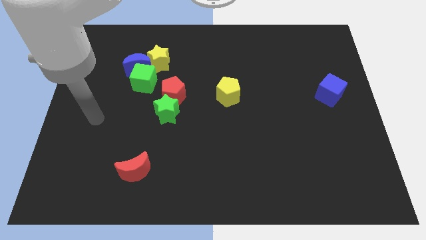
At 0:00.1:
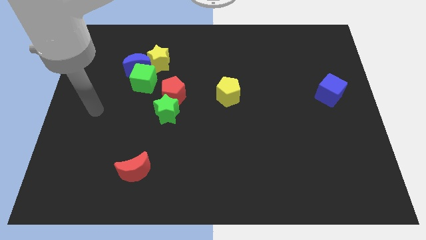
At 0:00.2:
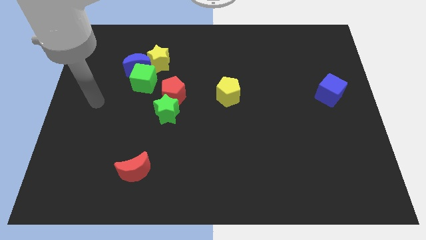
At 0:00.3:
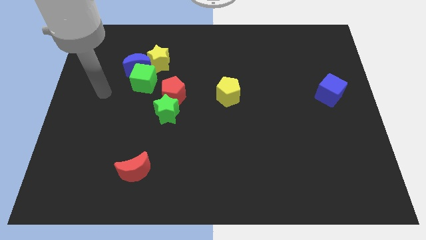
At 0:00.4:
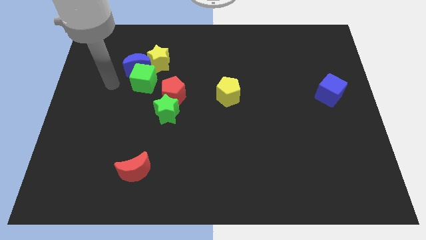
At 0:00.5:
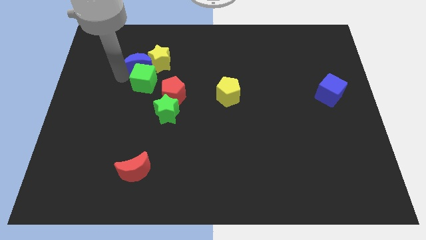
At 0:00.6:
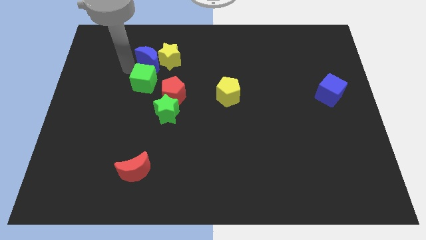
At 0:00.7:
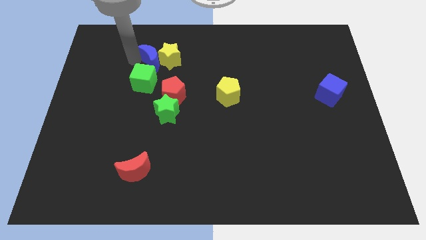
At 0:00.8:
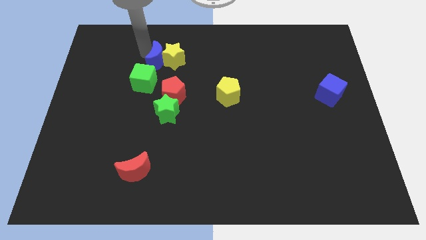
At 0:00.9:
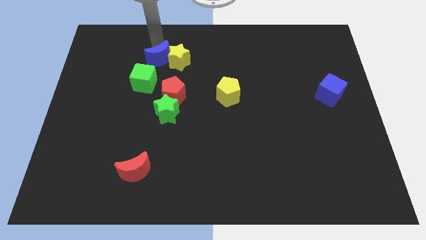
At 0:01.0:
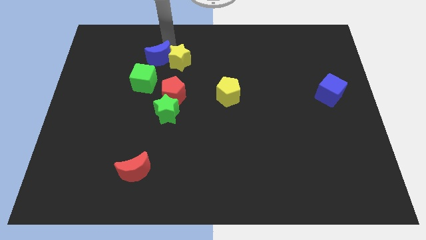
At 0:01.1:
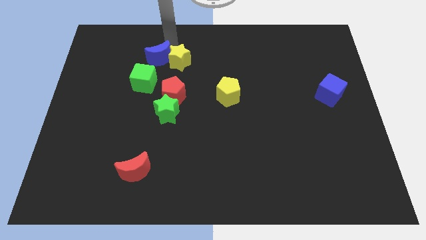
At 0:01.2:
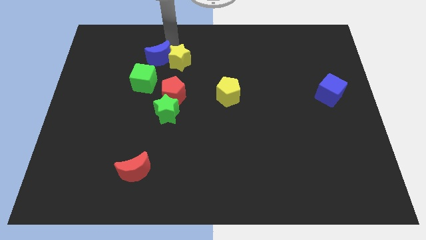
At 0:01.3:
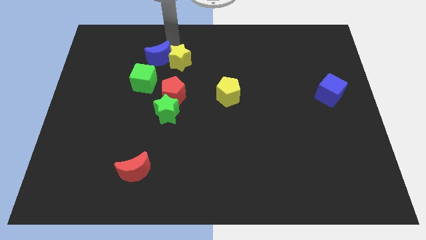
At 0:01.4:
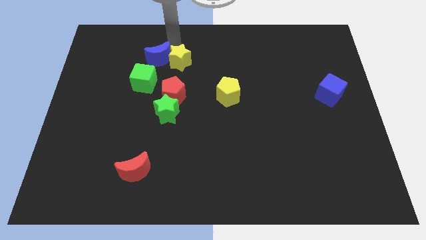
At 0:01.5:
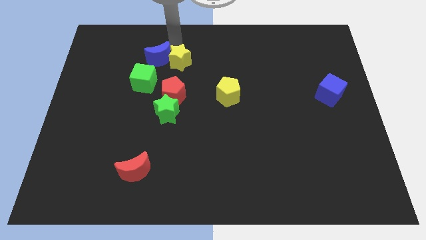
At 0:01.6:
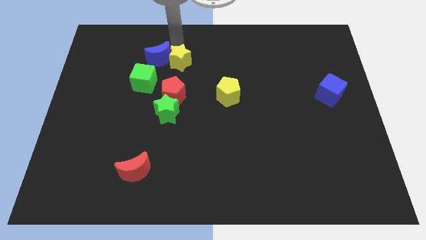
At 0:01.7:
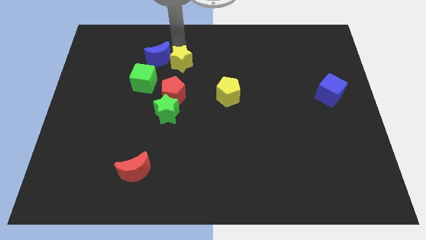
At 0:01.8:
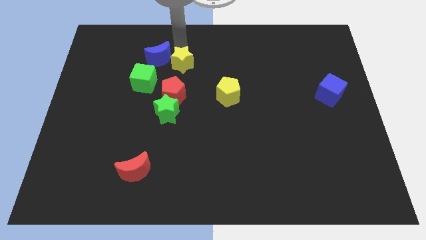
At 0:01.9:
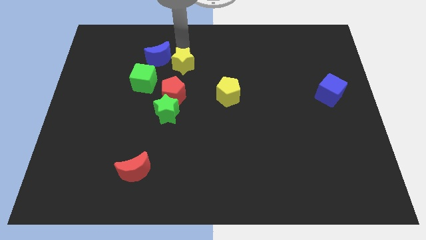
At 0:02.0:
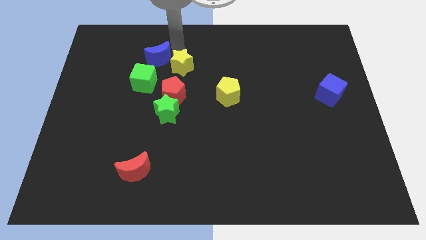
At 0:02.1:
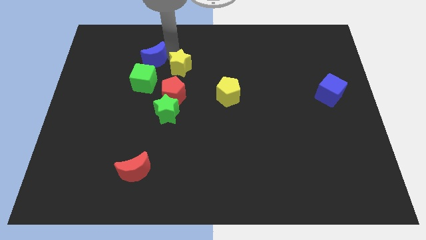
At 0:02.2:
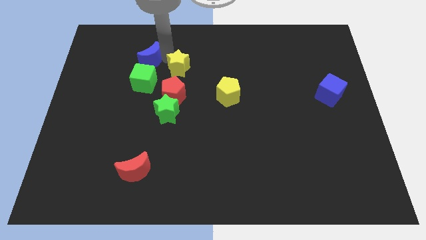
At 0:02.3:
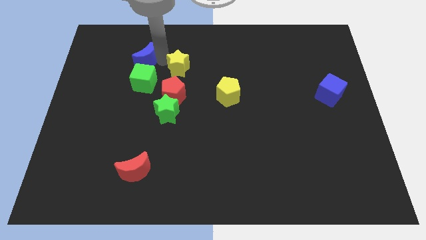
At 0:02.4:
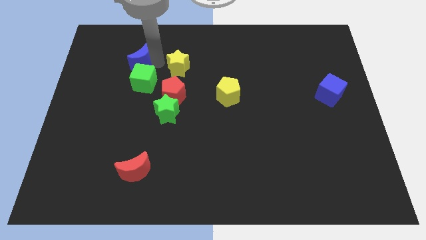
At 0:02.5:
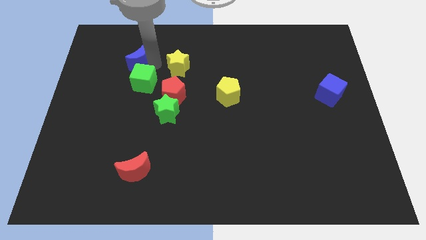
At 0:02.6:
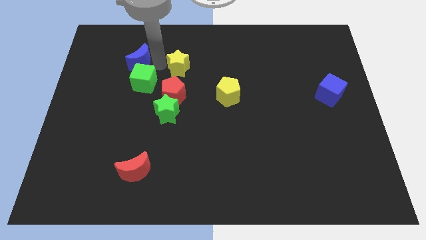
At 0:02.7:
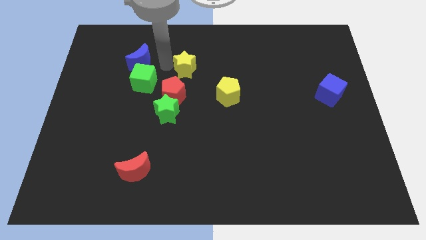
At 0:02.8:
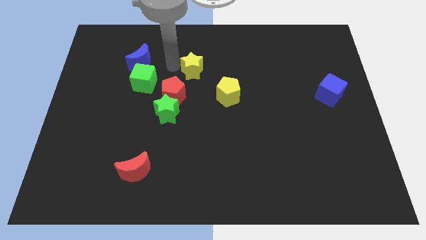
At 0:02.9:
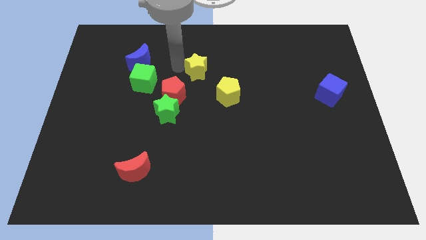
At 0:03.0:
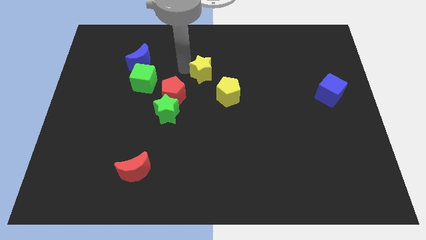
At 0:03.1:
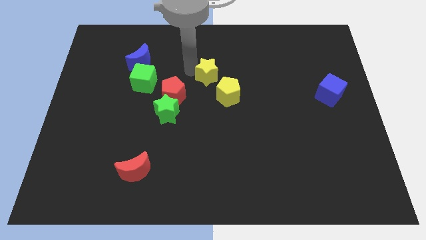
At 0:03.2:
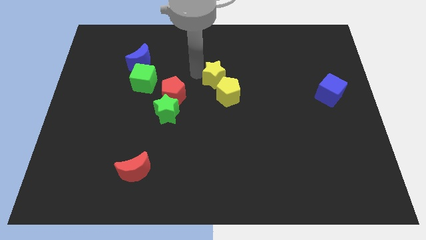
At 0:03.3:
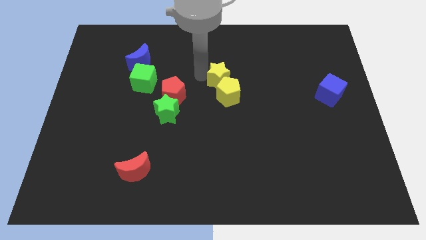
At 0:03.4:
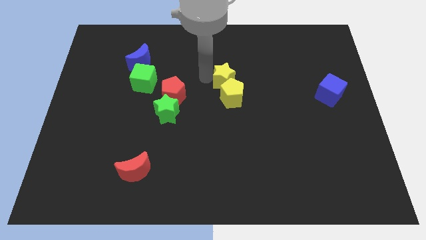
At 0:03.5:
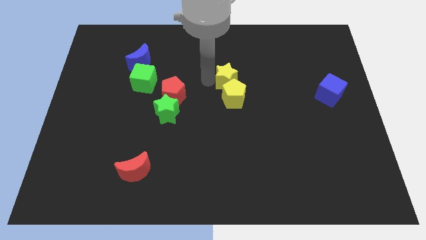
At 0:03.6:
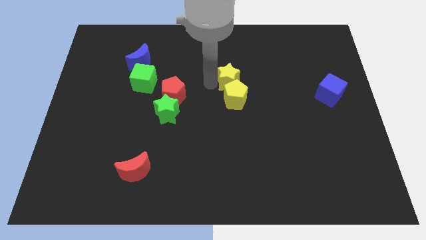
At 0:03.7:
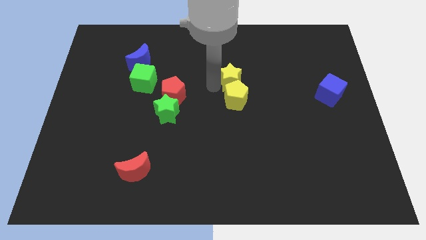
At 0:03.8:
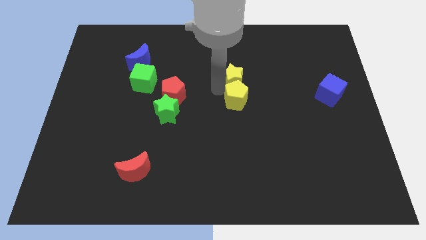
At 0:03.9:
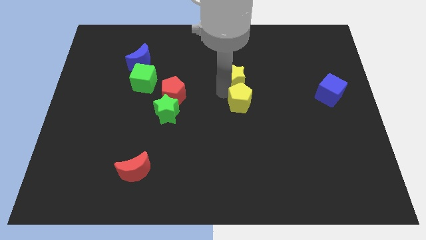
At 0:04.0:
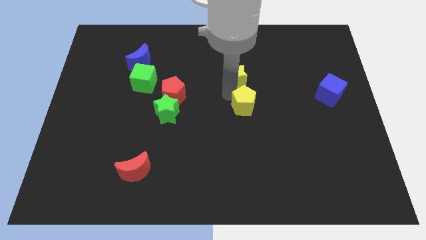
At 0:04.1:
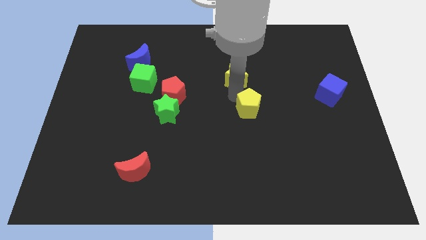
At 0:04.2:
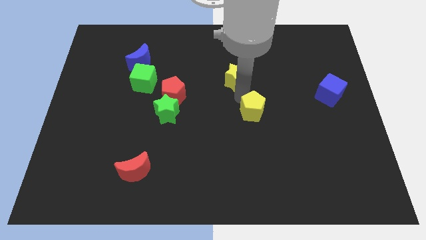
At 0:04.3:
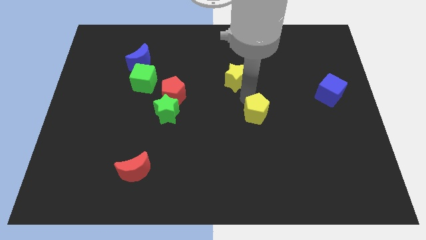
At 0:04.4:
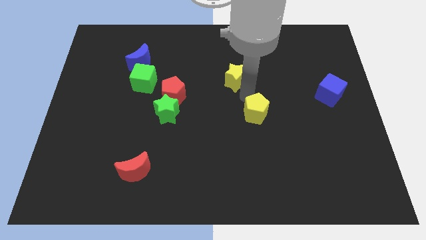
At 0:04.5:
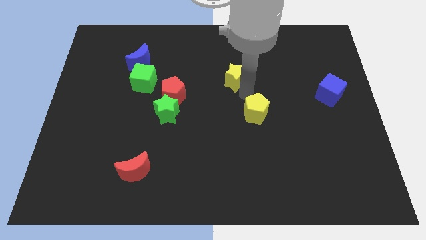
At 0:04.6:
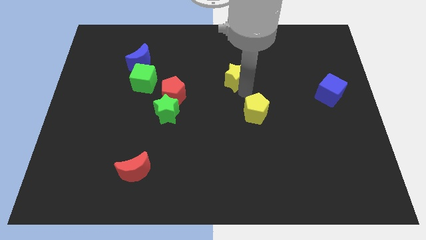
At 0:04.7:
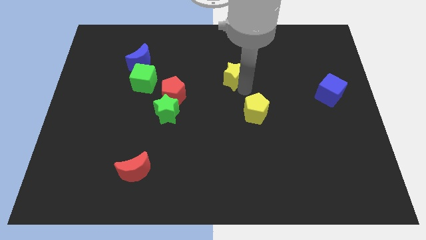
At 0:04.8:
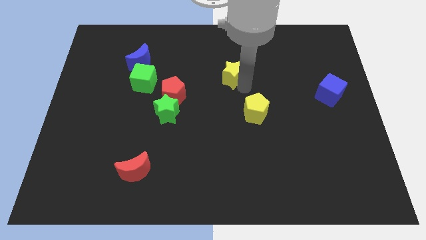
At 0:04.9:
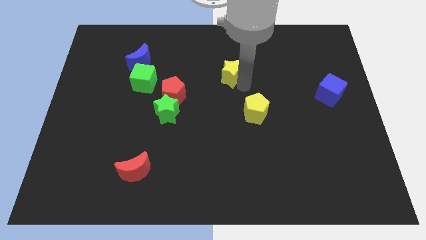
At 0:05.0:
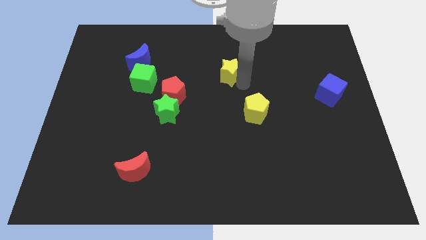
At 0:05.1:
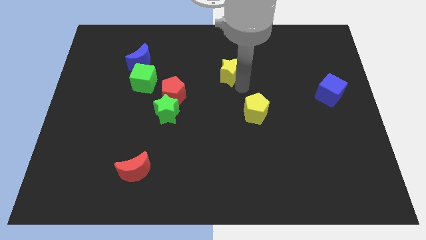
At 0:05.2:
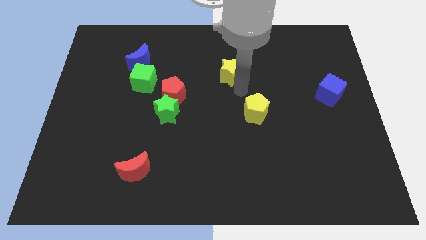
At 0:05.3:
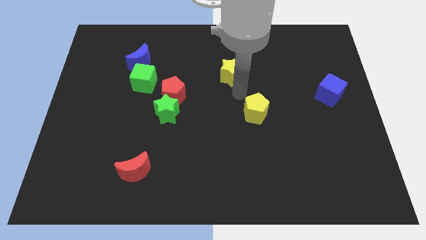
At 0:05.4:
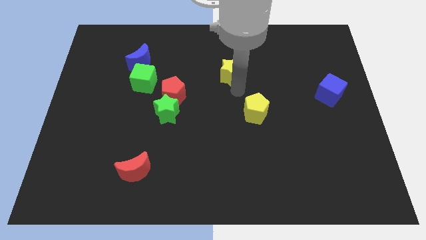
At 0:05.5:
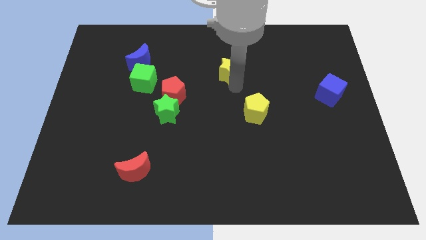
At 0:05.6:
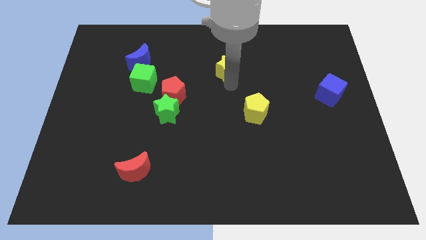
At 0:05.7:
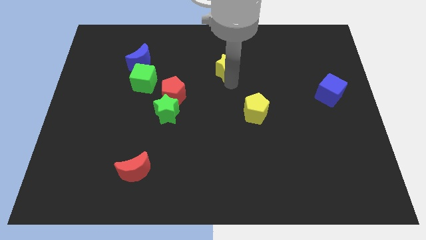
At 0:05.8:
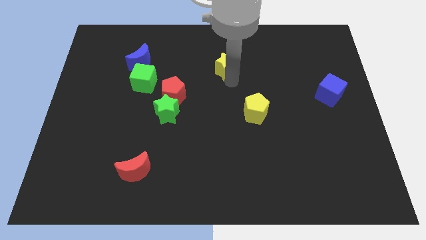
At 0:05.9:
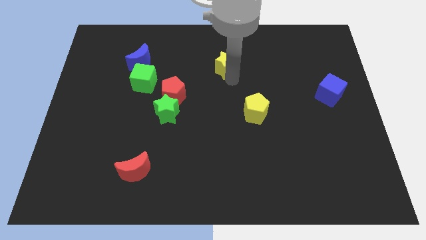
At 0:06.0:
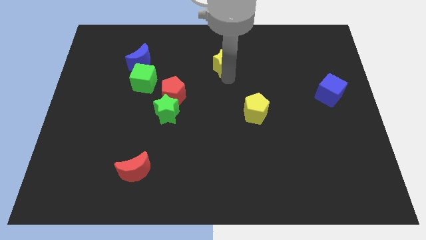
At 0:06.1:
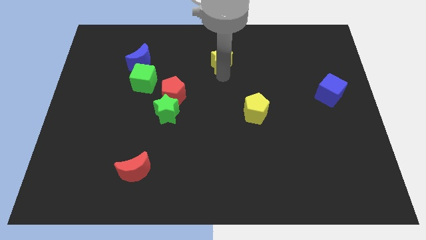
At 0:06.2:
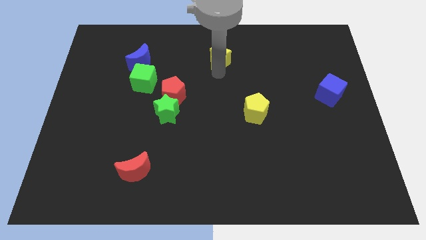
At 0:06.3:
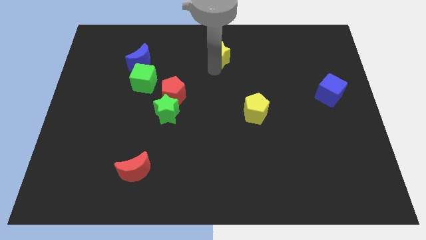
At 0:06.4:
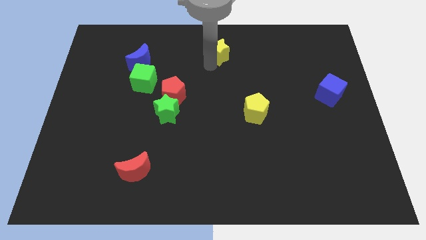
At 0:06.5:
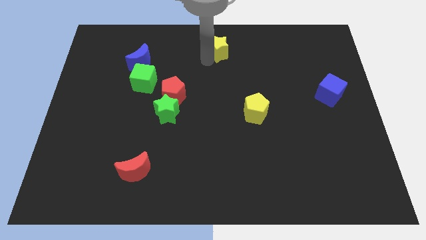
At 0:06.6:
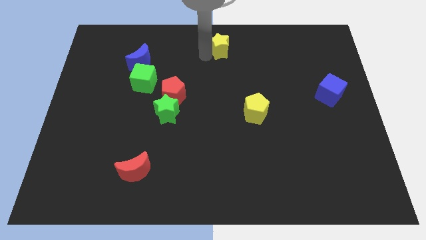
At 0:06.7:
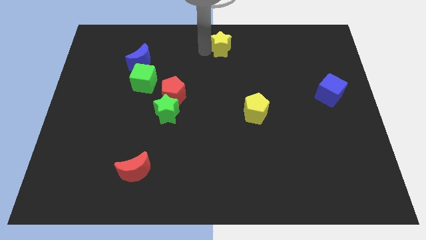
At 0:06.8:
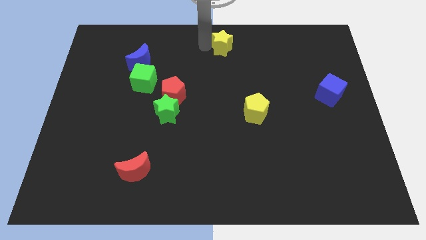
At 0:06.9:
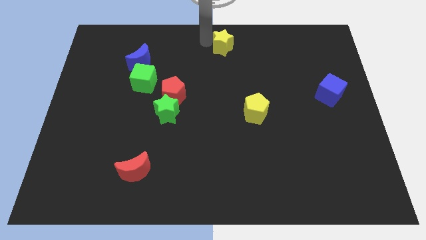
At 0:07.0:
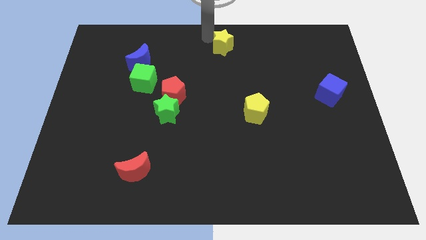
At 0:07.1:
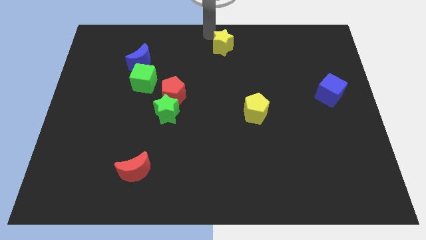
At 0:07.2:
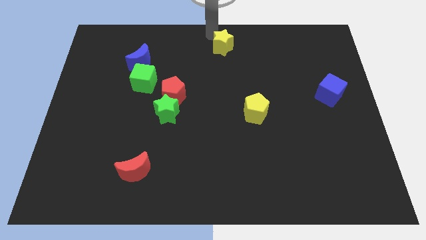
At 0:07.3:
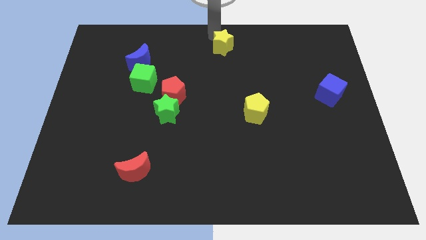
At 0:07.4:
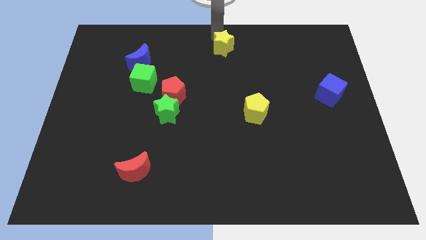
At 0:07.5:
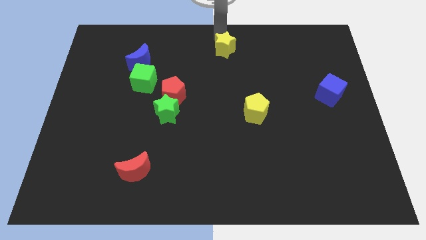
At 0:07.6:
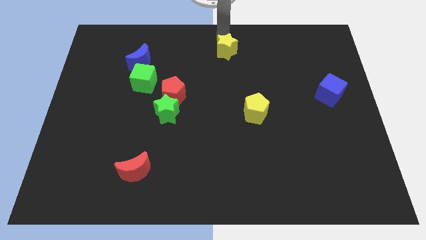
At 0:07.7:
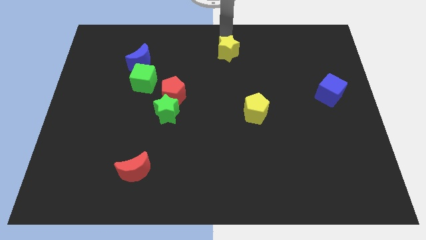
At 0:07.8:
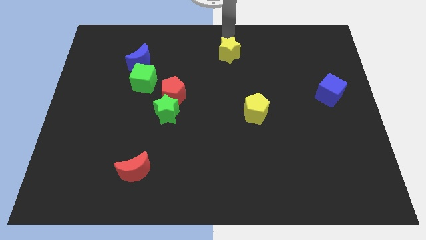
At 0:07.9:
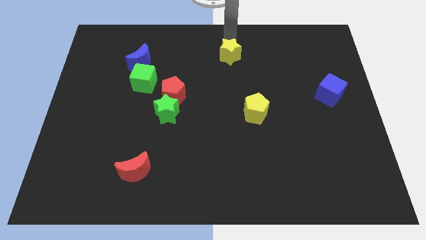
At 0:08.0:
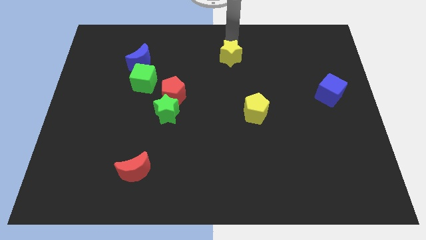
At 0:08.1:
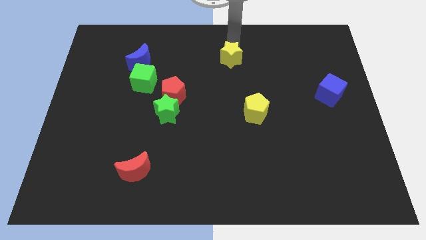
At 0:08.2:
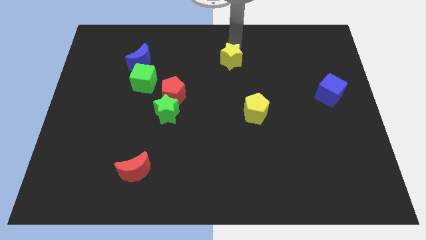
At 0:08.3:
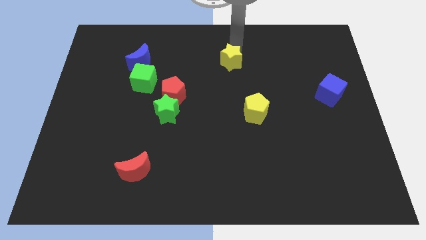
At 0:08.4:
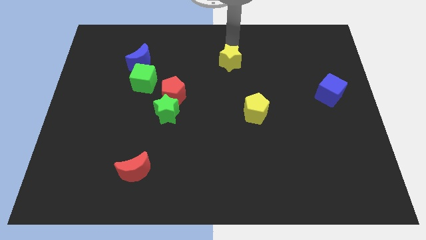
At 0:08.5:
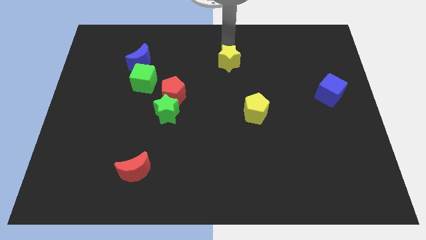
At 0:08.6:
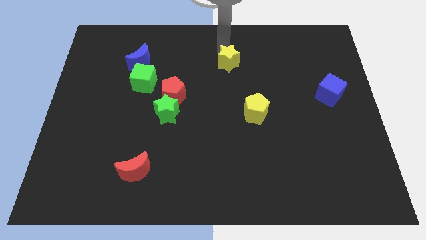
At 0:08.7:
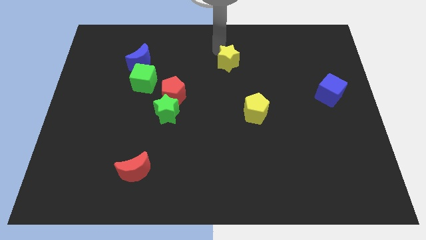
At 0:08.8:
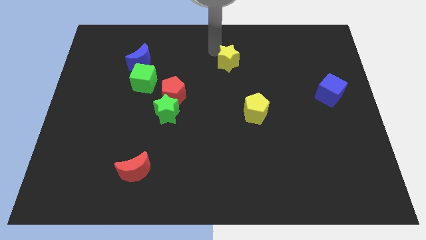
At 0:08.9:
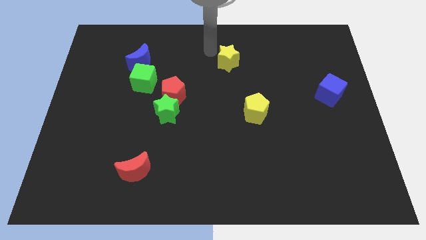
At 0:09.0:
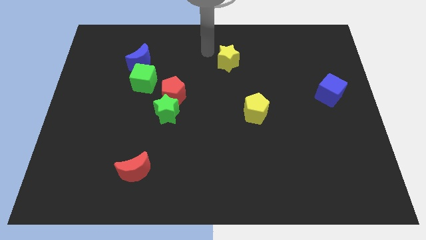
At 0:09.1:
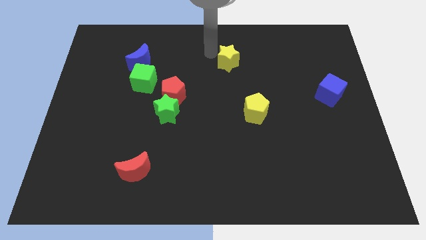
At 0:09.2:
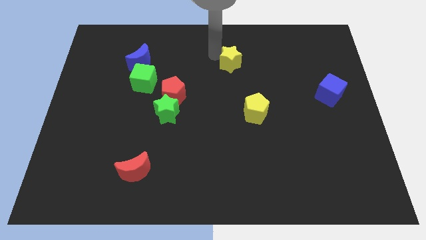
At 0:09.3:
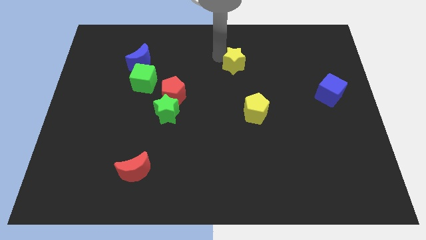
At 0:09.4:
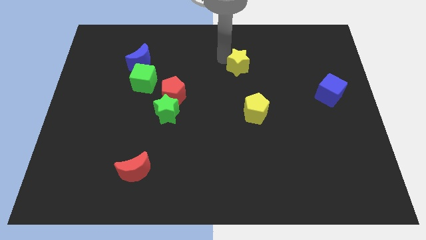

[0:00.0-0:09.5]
slide the yellow star right
